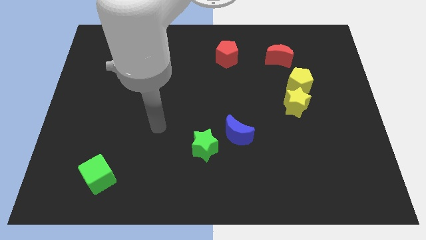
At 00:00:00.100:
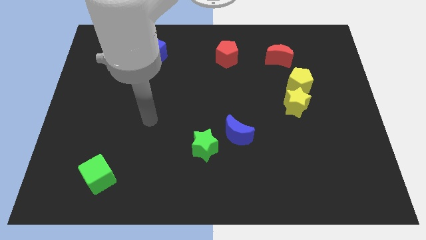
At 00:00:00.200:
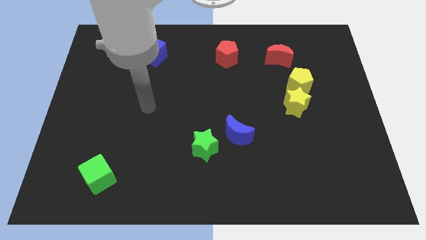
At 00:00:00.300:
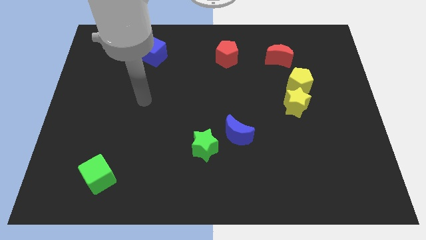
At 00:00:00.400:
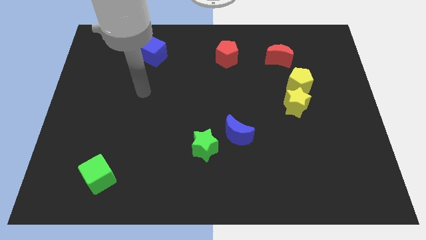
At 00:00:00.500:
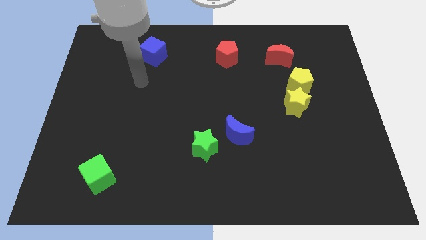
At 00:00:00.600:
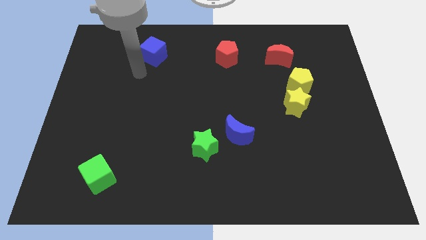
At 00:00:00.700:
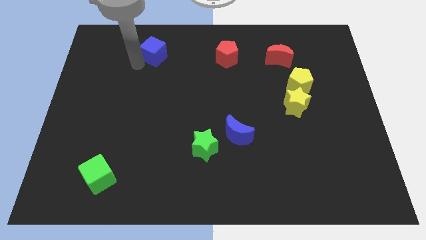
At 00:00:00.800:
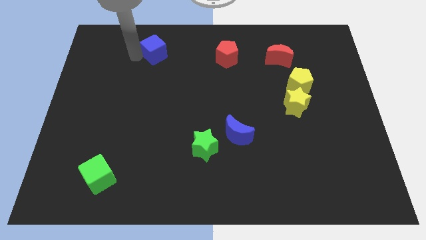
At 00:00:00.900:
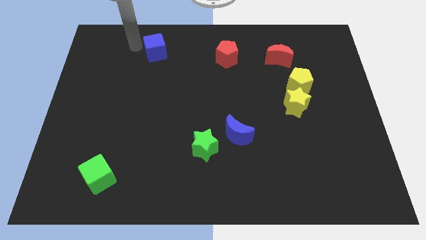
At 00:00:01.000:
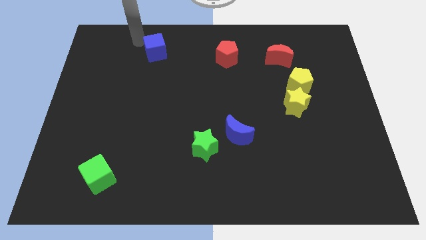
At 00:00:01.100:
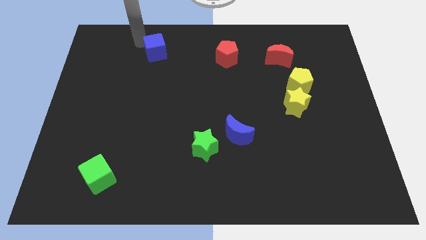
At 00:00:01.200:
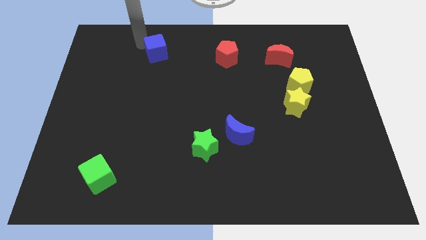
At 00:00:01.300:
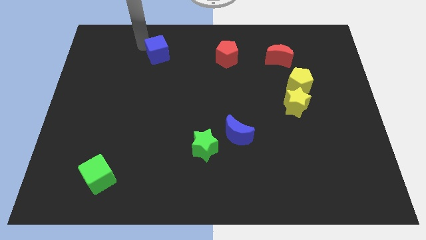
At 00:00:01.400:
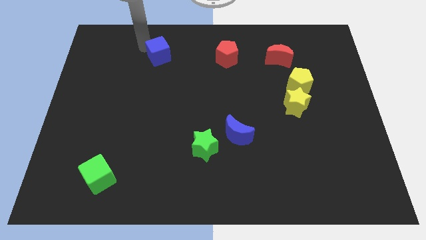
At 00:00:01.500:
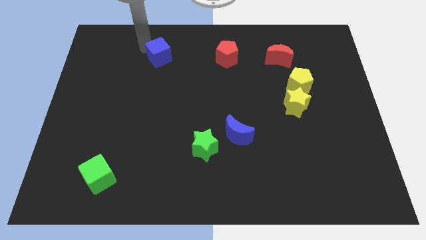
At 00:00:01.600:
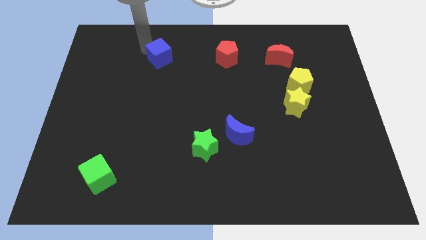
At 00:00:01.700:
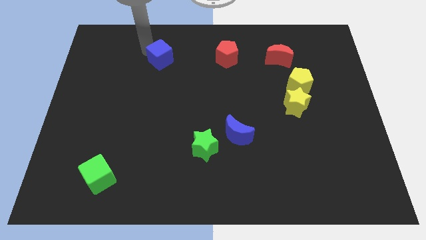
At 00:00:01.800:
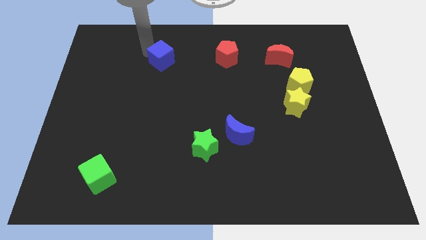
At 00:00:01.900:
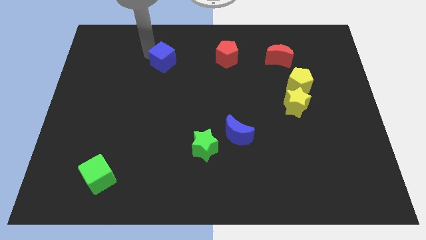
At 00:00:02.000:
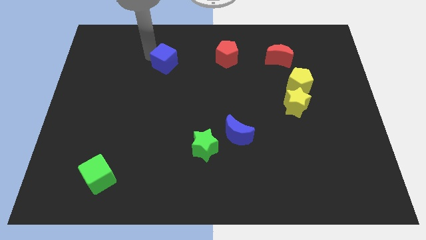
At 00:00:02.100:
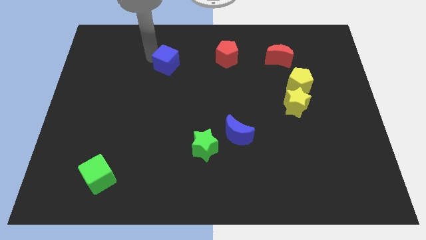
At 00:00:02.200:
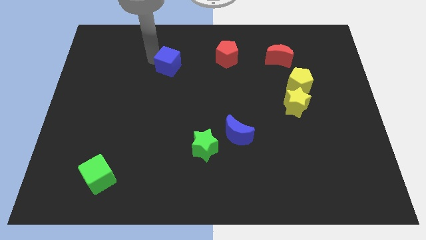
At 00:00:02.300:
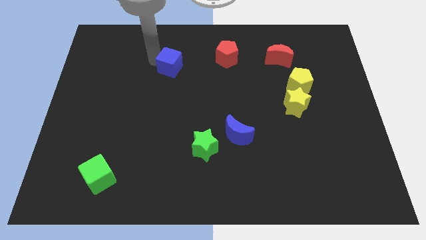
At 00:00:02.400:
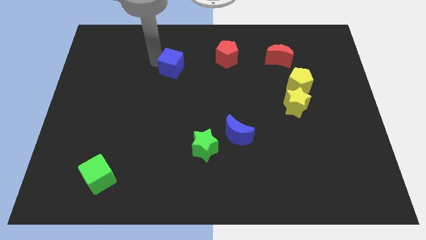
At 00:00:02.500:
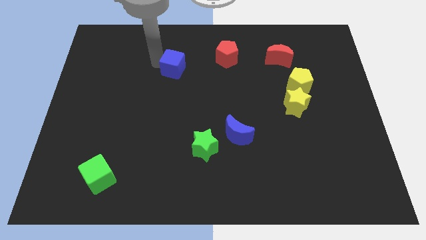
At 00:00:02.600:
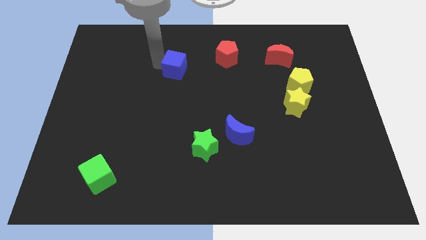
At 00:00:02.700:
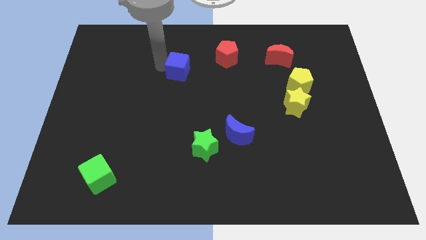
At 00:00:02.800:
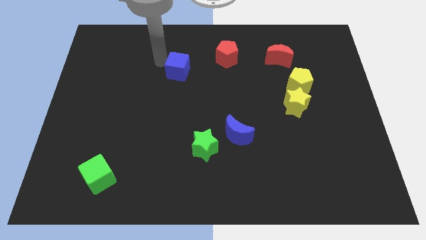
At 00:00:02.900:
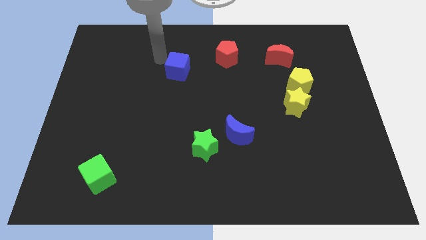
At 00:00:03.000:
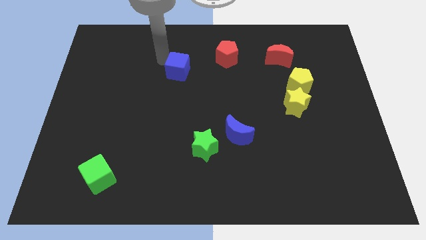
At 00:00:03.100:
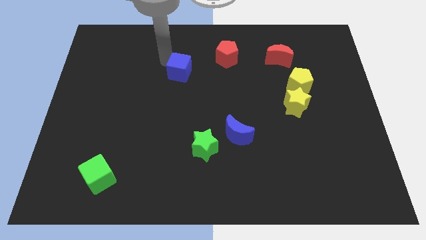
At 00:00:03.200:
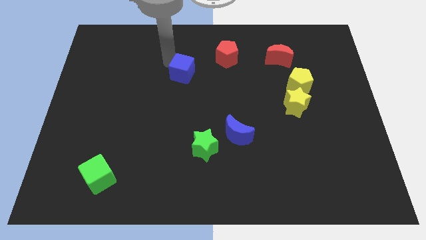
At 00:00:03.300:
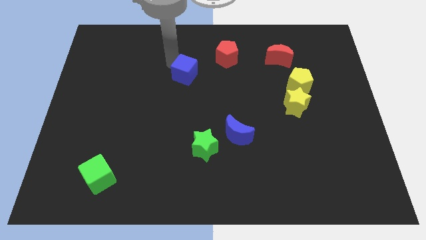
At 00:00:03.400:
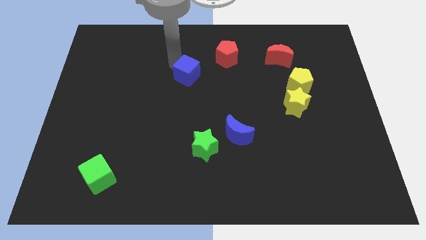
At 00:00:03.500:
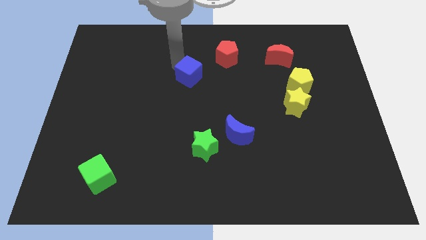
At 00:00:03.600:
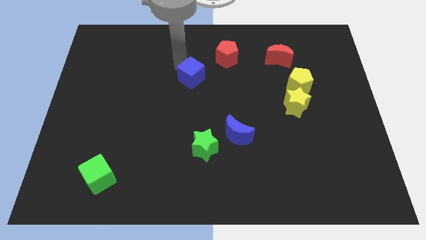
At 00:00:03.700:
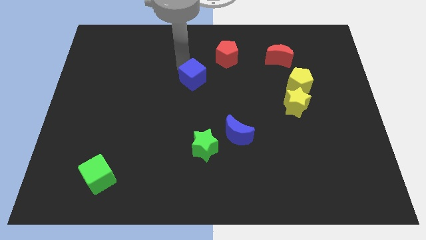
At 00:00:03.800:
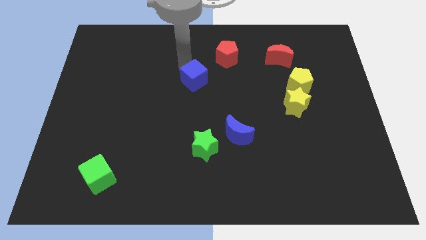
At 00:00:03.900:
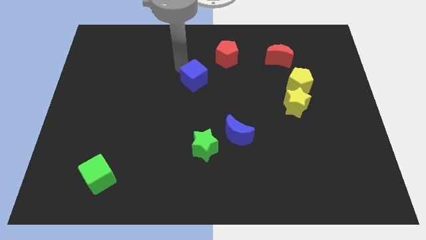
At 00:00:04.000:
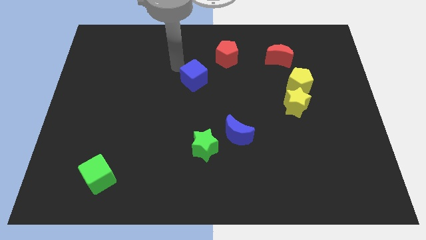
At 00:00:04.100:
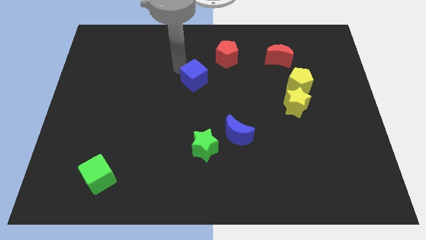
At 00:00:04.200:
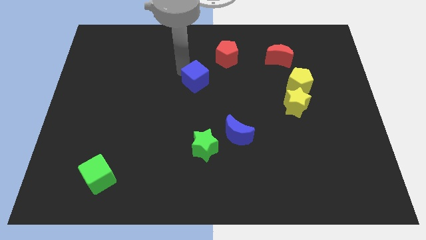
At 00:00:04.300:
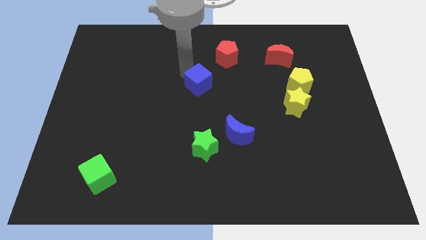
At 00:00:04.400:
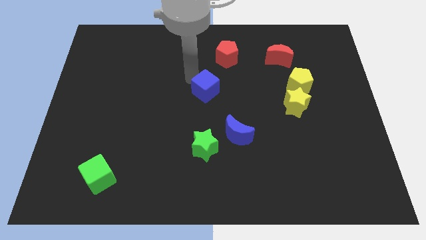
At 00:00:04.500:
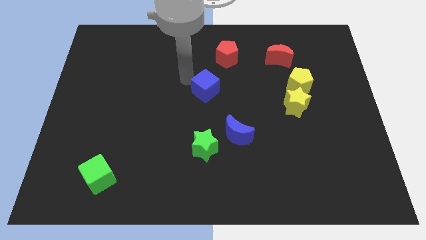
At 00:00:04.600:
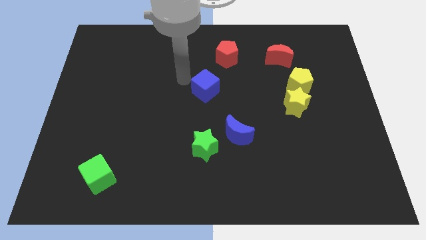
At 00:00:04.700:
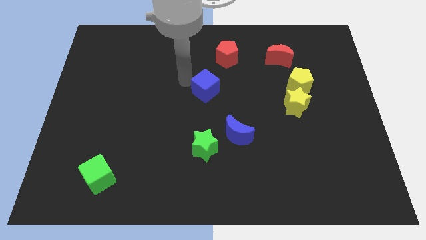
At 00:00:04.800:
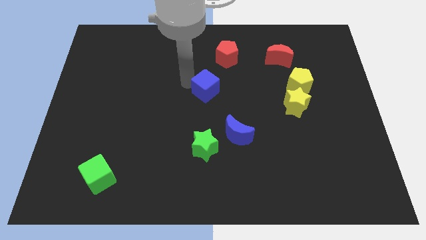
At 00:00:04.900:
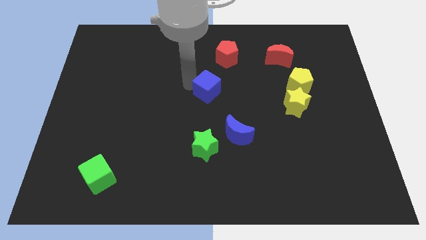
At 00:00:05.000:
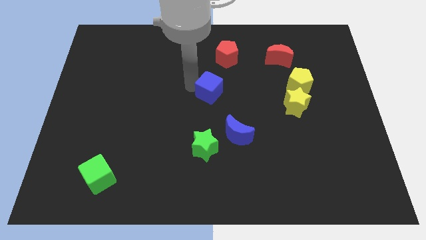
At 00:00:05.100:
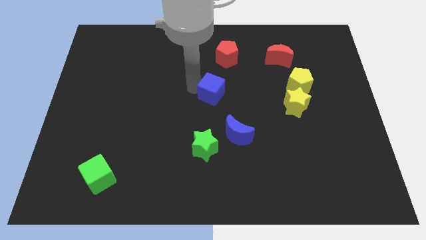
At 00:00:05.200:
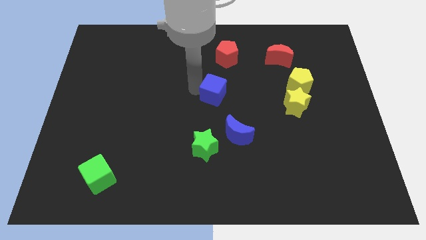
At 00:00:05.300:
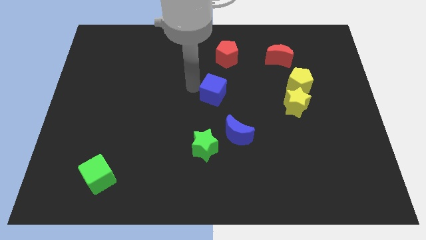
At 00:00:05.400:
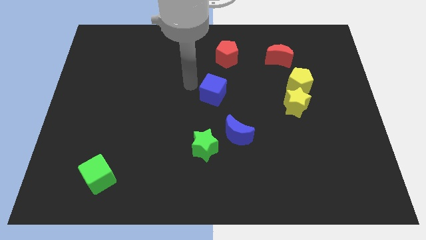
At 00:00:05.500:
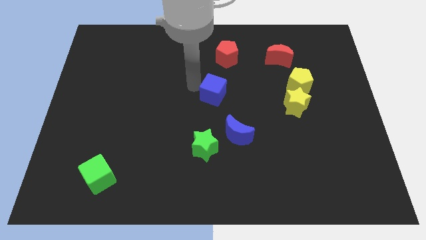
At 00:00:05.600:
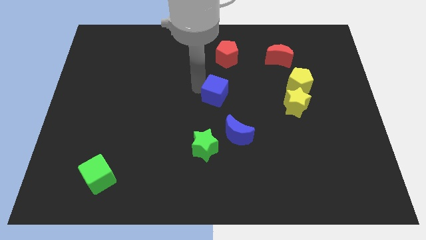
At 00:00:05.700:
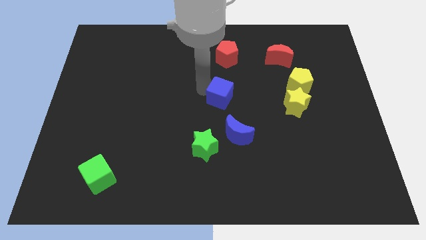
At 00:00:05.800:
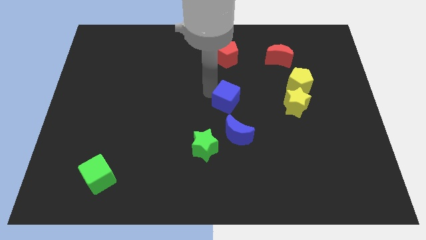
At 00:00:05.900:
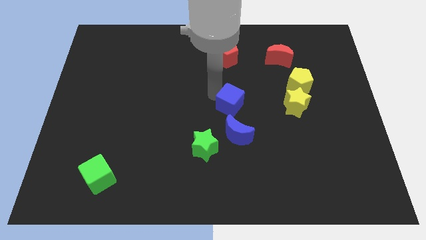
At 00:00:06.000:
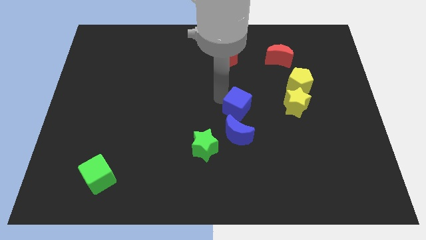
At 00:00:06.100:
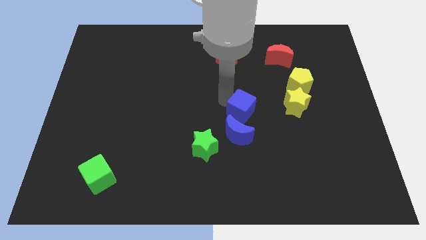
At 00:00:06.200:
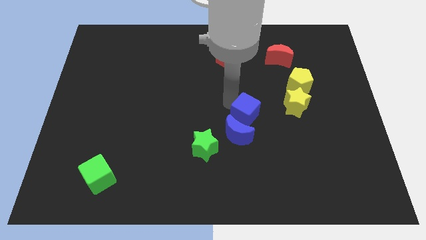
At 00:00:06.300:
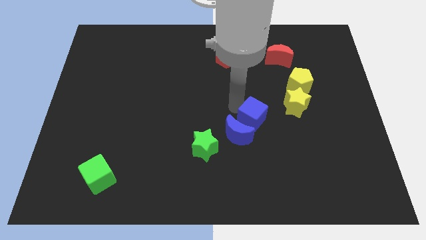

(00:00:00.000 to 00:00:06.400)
push the blue cube to the right of the blue moon

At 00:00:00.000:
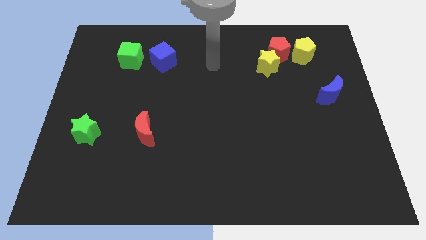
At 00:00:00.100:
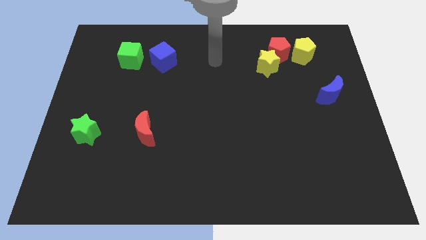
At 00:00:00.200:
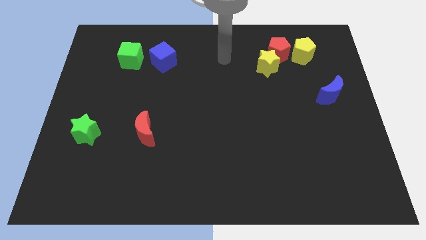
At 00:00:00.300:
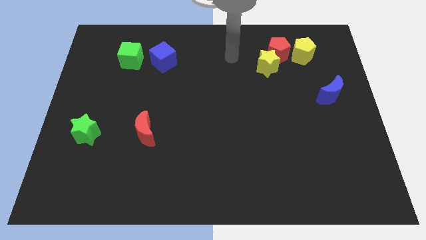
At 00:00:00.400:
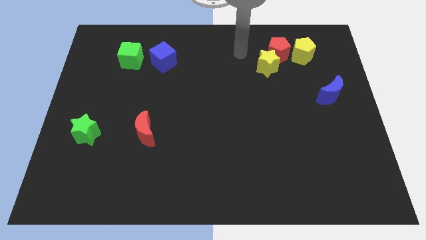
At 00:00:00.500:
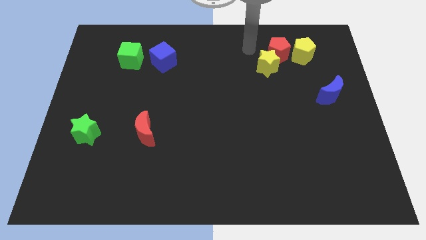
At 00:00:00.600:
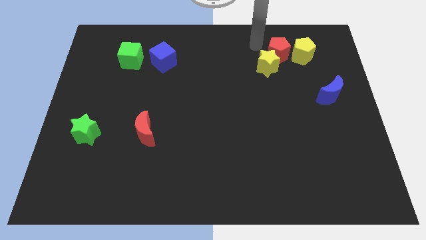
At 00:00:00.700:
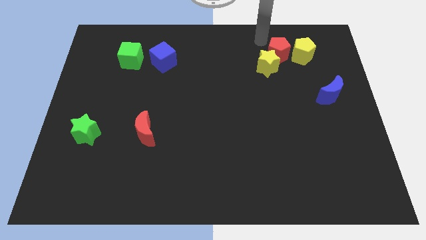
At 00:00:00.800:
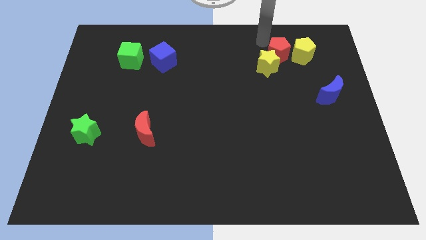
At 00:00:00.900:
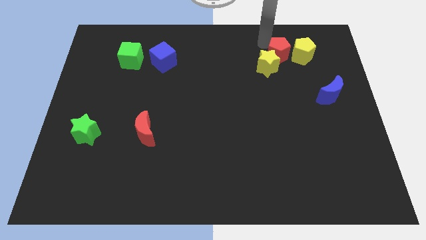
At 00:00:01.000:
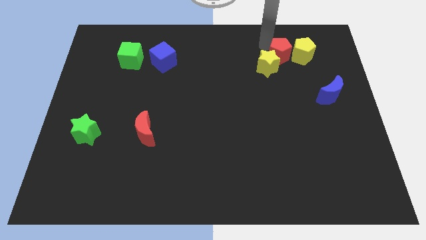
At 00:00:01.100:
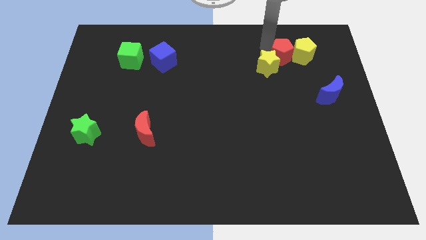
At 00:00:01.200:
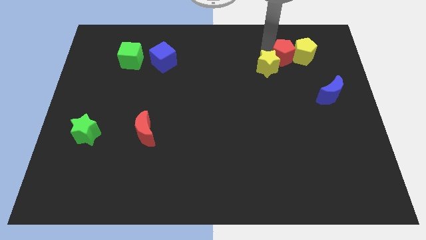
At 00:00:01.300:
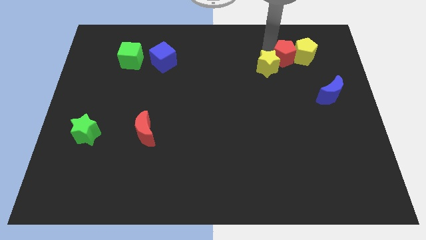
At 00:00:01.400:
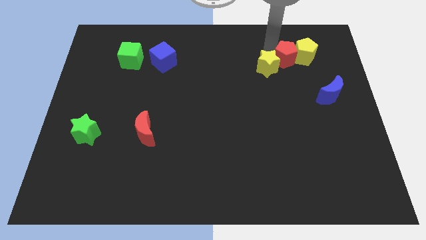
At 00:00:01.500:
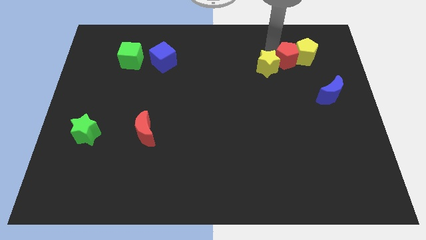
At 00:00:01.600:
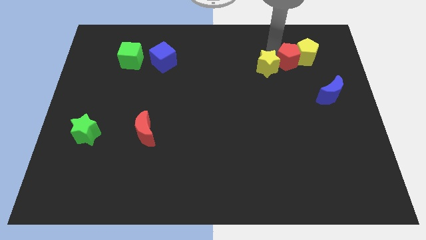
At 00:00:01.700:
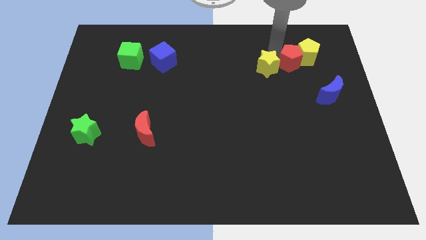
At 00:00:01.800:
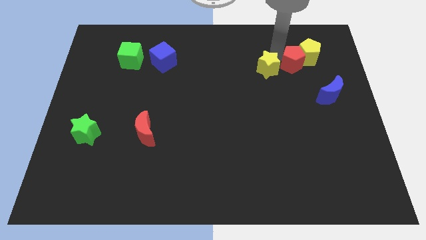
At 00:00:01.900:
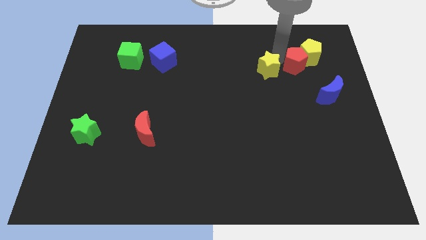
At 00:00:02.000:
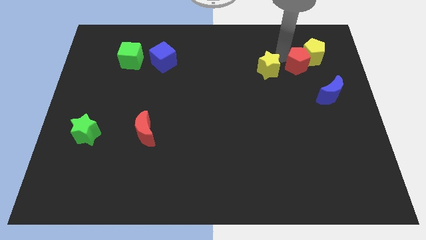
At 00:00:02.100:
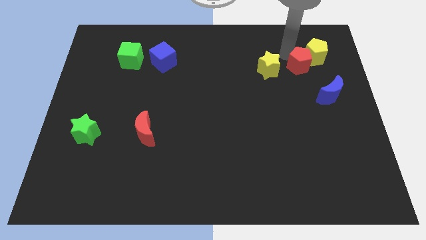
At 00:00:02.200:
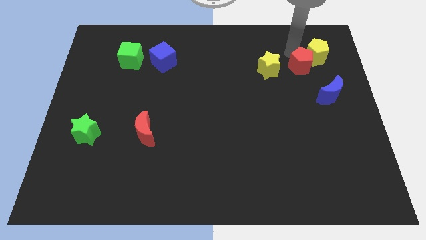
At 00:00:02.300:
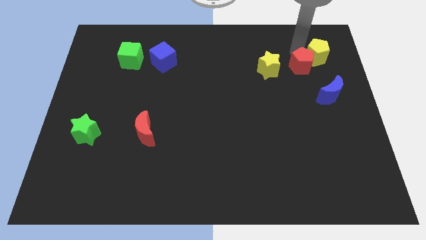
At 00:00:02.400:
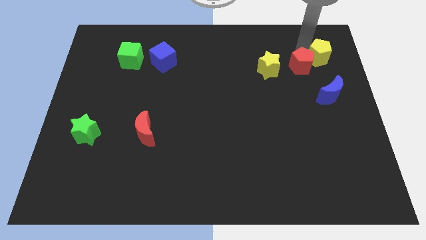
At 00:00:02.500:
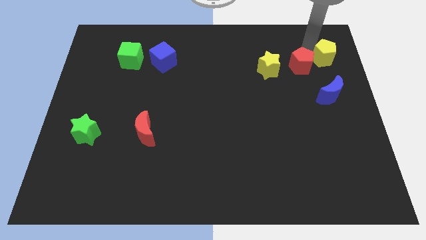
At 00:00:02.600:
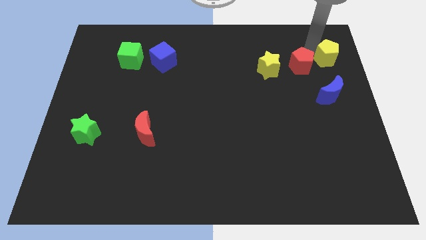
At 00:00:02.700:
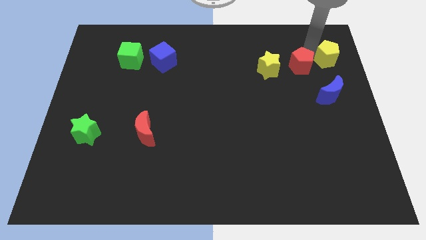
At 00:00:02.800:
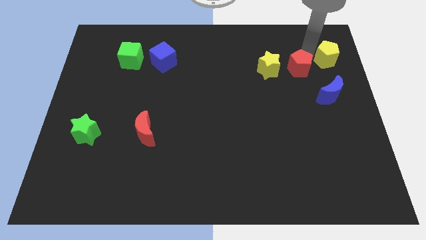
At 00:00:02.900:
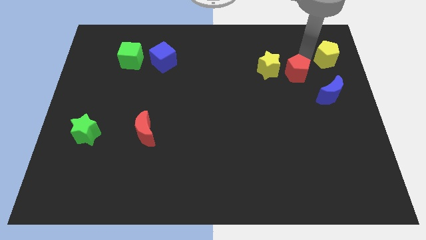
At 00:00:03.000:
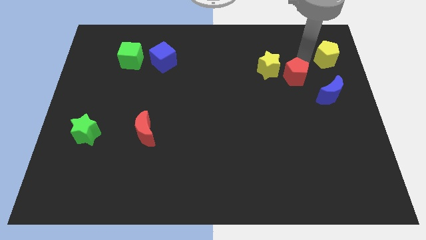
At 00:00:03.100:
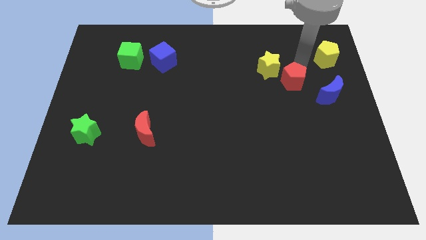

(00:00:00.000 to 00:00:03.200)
slide the red pentagon to the left of the blue moon
